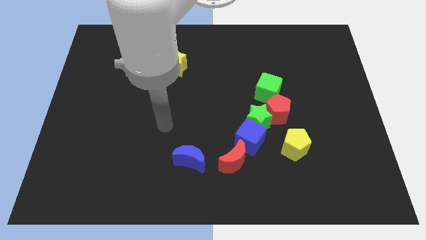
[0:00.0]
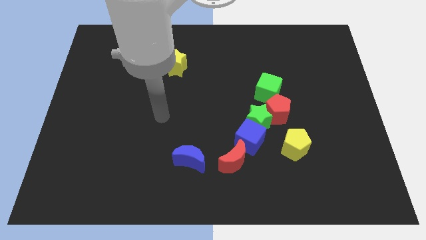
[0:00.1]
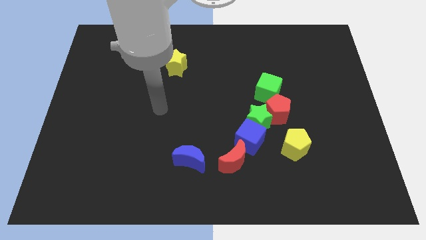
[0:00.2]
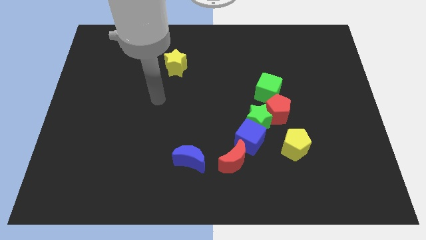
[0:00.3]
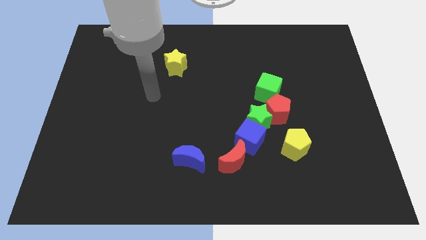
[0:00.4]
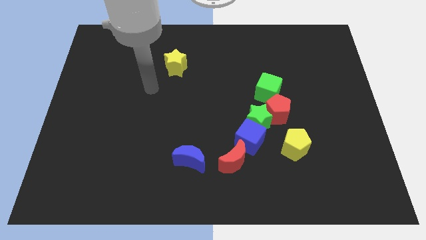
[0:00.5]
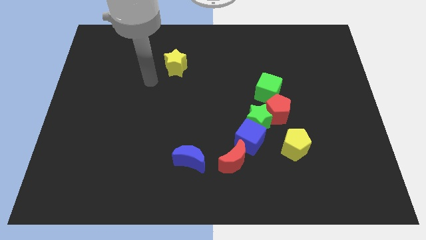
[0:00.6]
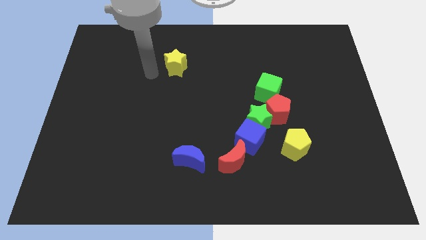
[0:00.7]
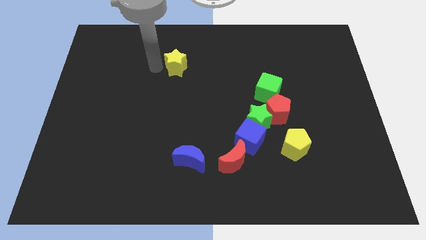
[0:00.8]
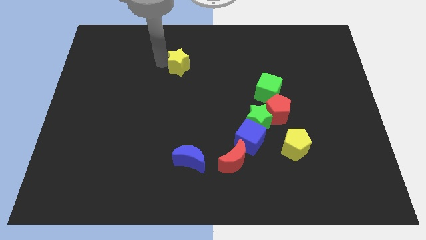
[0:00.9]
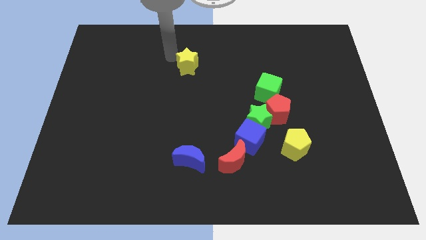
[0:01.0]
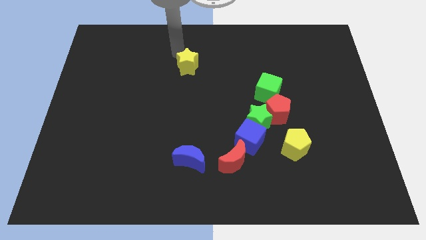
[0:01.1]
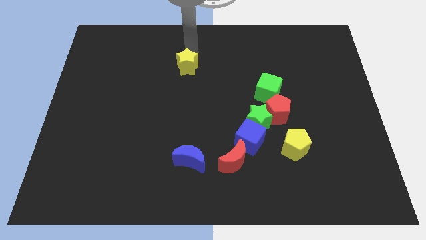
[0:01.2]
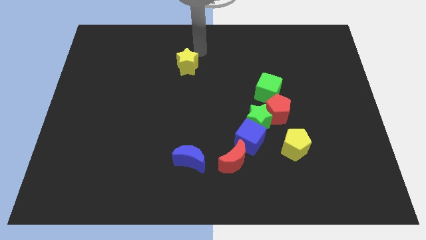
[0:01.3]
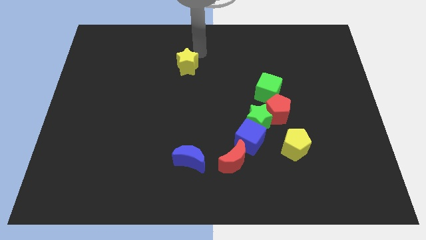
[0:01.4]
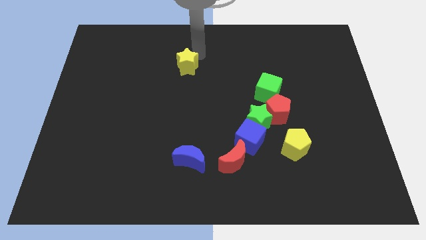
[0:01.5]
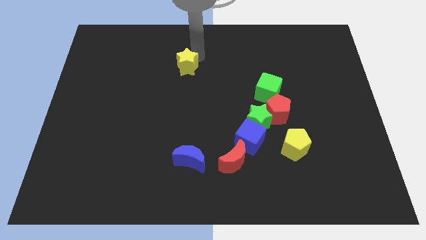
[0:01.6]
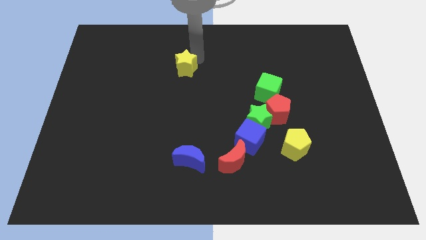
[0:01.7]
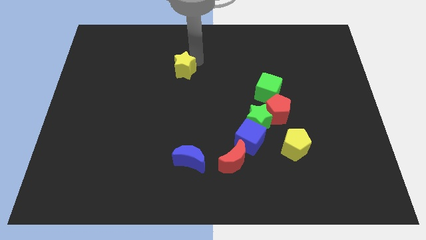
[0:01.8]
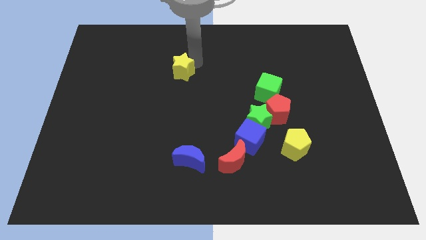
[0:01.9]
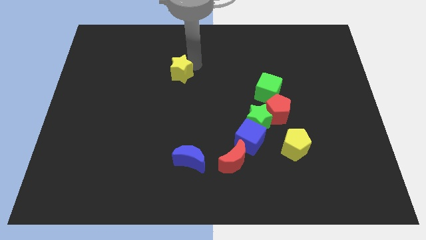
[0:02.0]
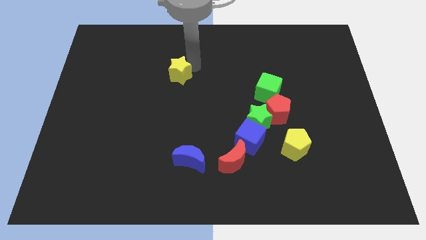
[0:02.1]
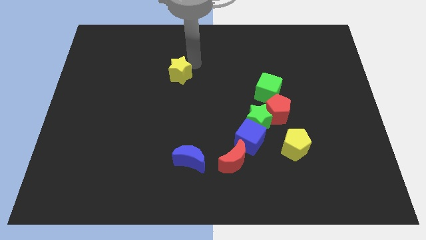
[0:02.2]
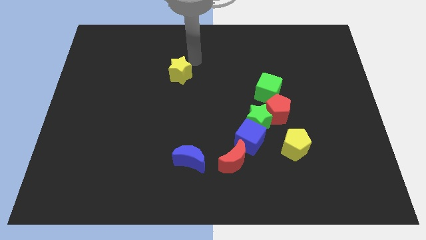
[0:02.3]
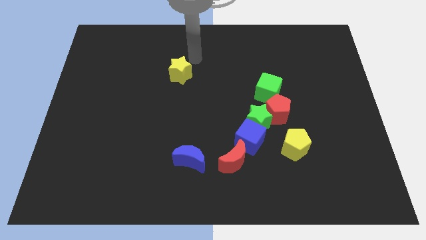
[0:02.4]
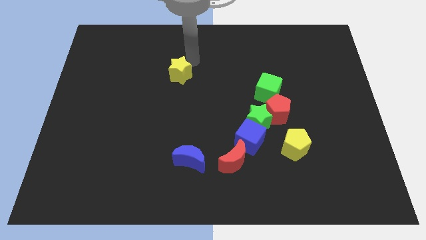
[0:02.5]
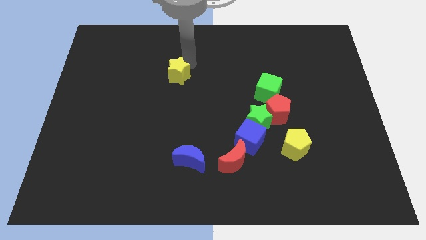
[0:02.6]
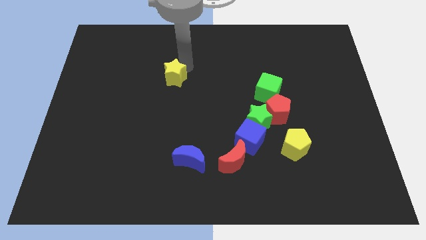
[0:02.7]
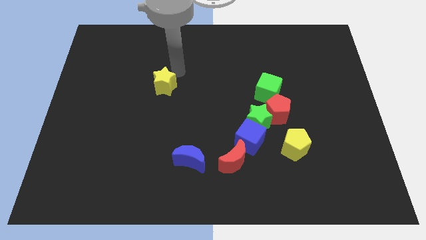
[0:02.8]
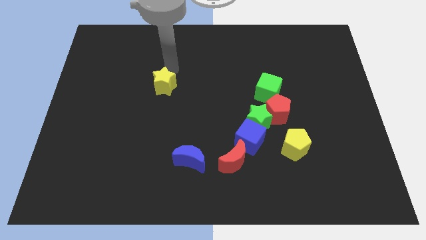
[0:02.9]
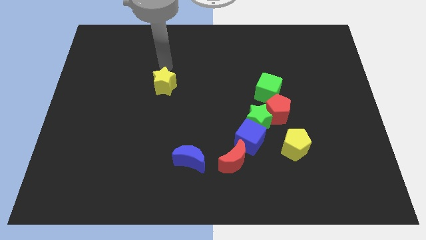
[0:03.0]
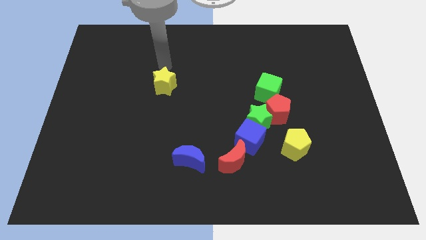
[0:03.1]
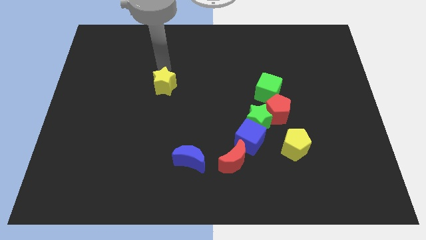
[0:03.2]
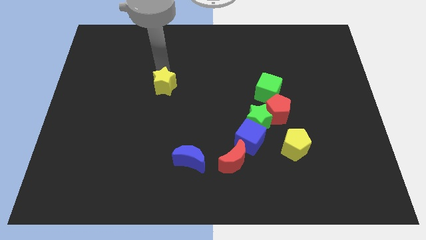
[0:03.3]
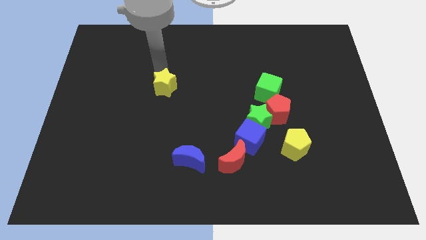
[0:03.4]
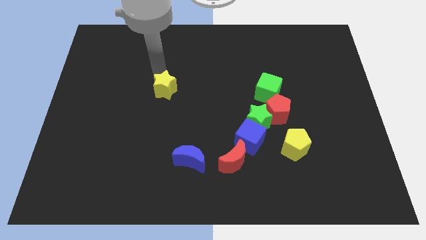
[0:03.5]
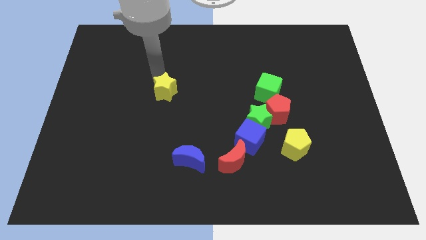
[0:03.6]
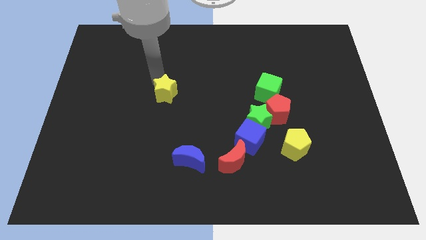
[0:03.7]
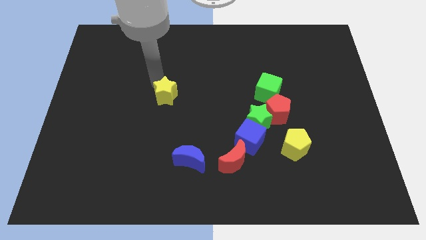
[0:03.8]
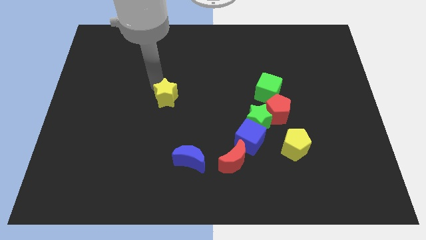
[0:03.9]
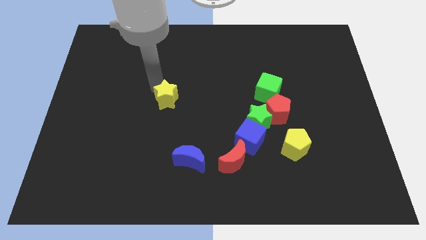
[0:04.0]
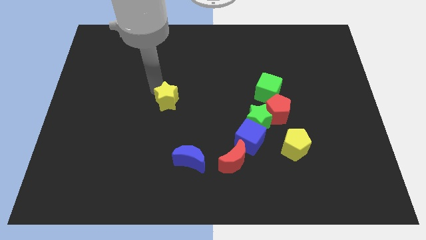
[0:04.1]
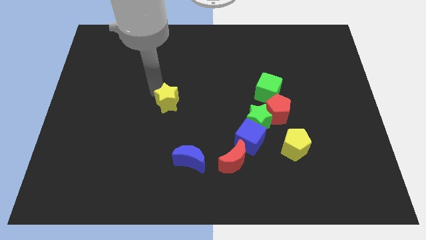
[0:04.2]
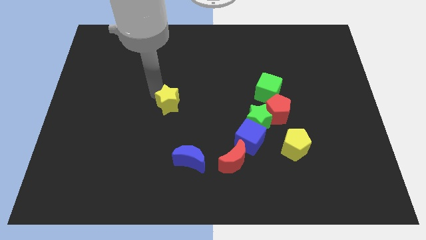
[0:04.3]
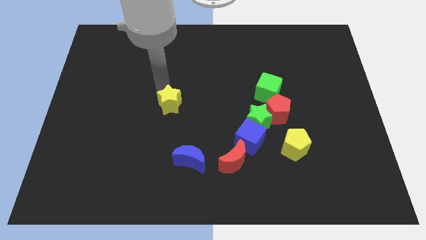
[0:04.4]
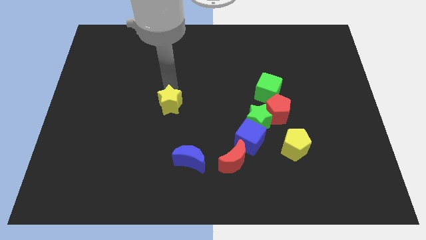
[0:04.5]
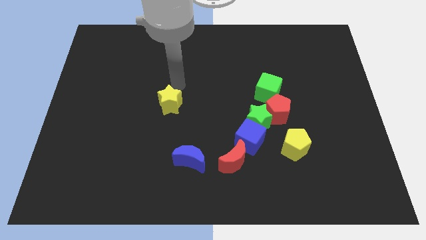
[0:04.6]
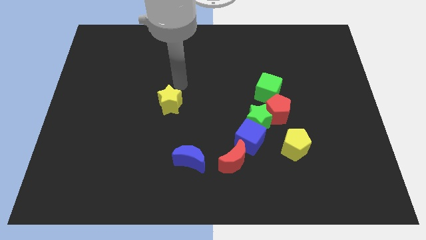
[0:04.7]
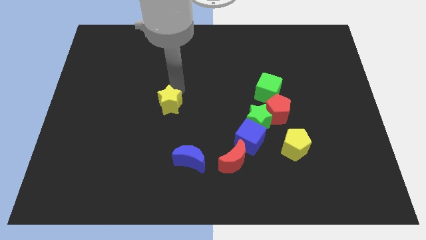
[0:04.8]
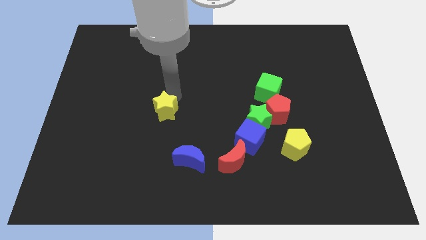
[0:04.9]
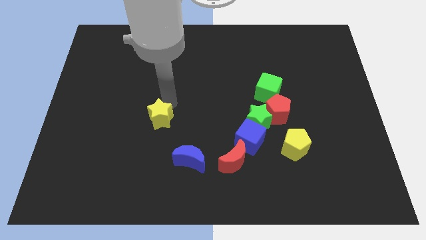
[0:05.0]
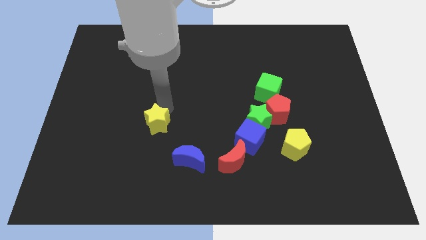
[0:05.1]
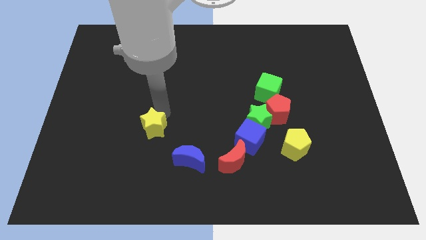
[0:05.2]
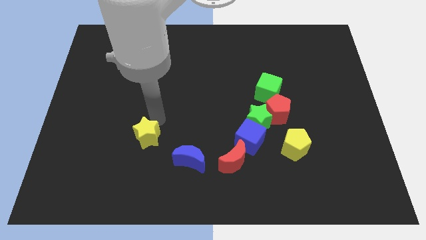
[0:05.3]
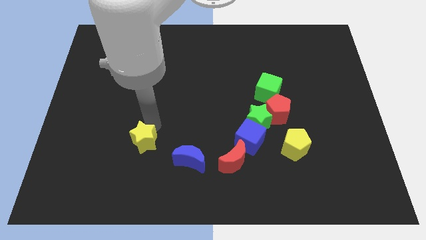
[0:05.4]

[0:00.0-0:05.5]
put the yellow star left of the blue moon

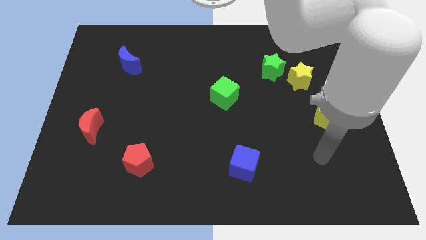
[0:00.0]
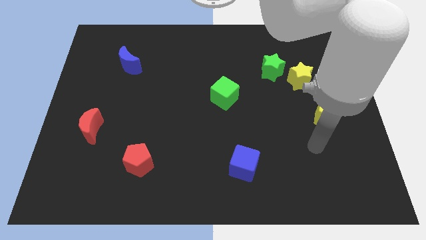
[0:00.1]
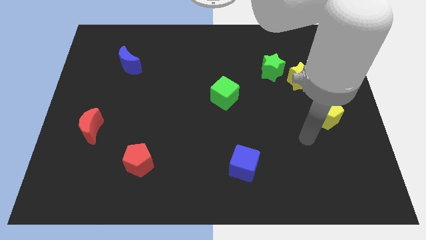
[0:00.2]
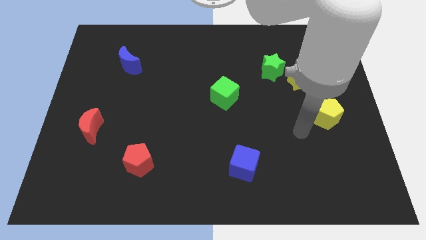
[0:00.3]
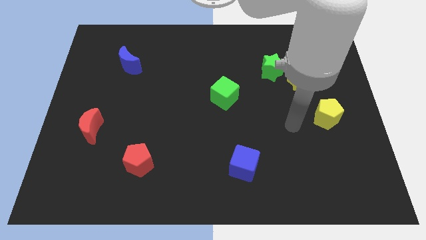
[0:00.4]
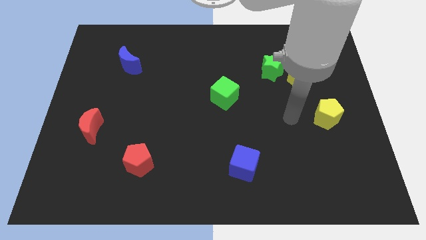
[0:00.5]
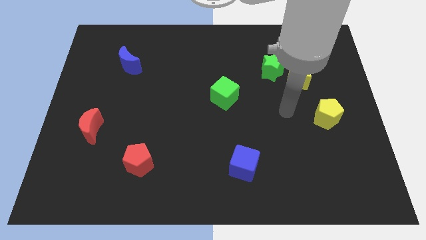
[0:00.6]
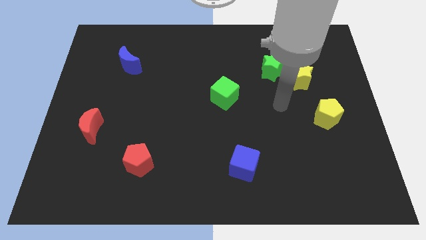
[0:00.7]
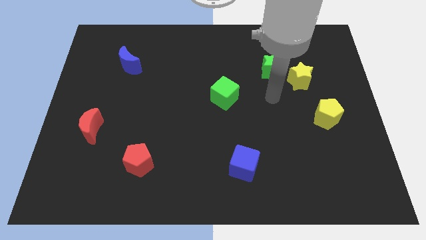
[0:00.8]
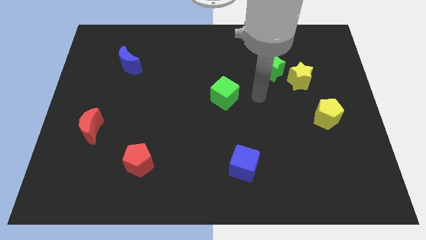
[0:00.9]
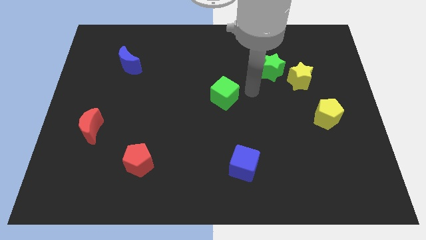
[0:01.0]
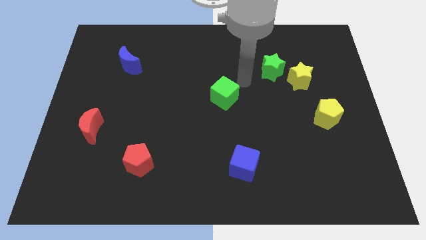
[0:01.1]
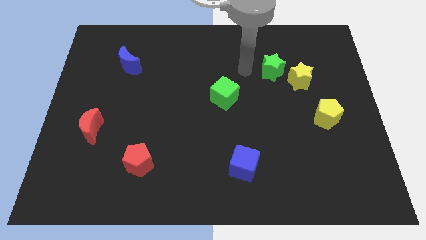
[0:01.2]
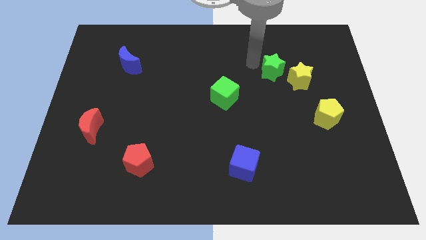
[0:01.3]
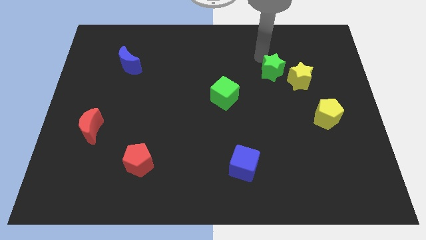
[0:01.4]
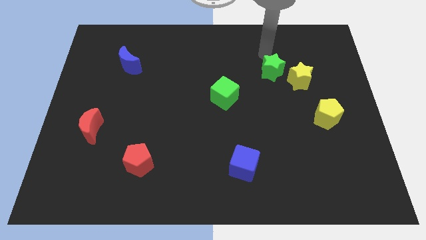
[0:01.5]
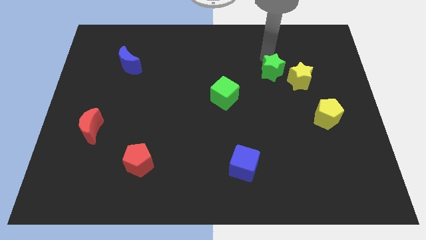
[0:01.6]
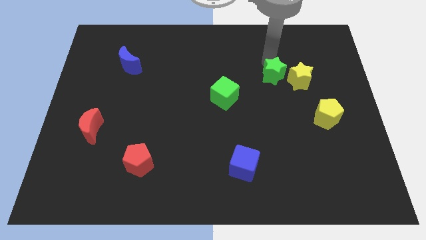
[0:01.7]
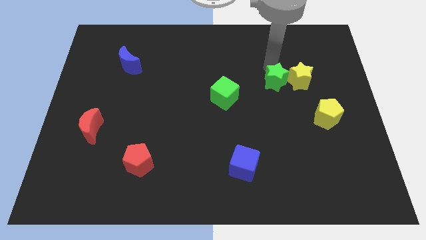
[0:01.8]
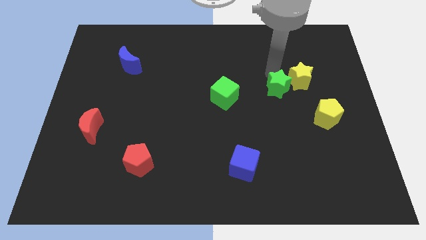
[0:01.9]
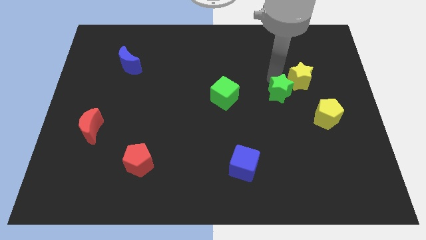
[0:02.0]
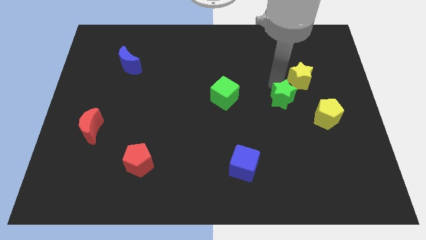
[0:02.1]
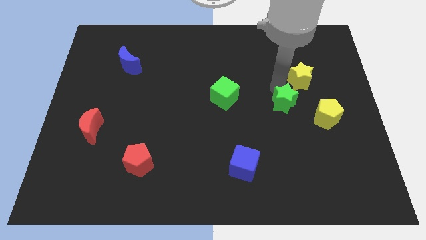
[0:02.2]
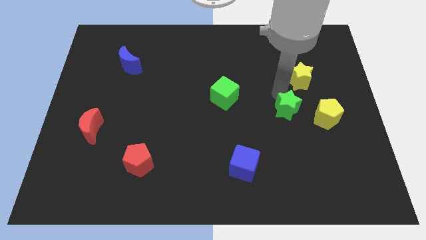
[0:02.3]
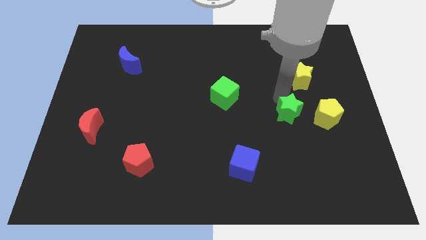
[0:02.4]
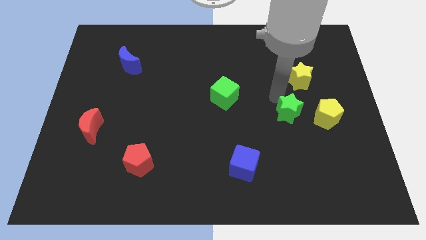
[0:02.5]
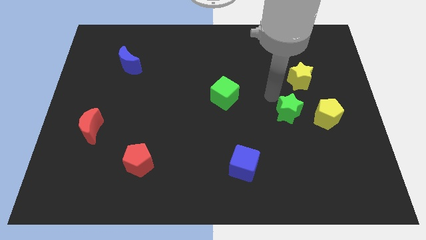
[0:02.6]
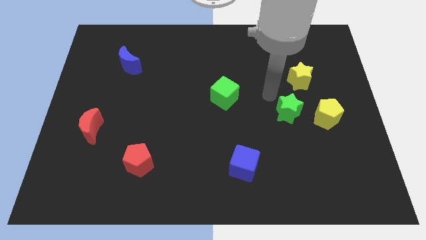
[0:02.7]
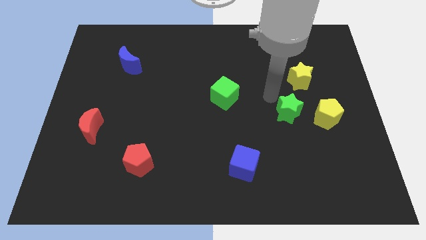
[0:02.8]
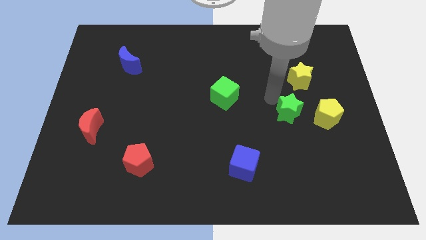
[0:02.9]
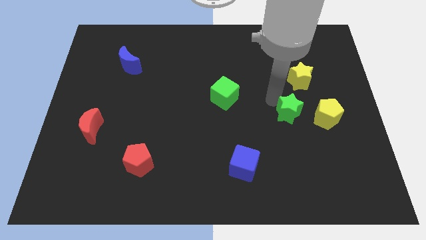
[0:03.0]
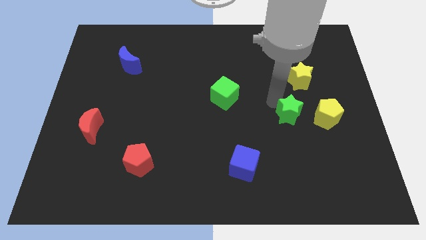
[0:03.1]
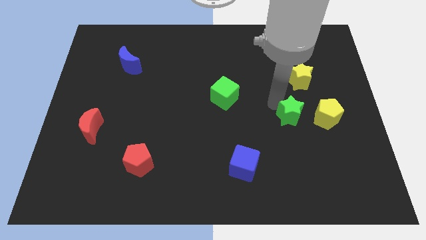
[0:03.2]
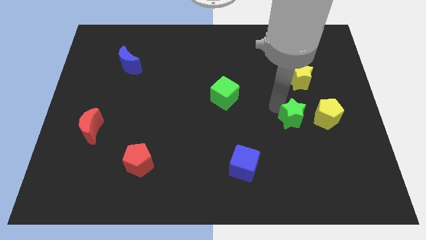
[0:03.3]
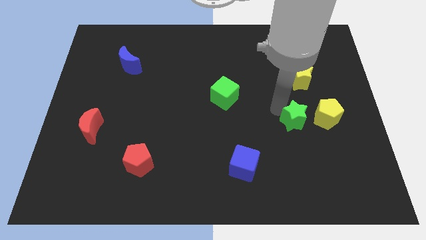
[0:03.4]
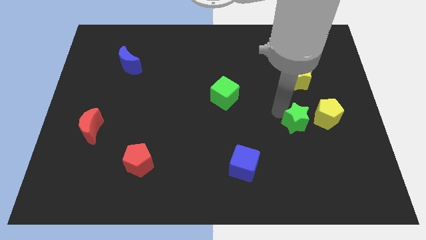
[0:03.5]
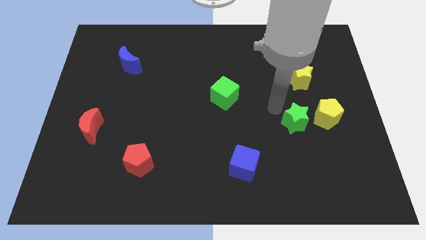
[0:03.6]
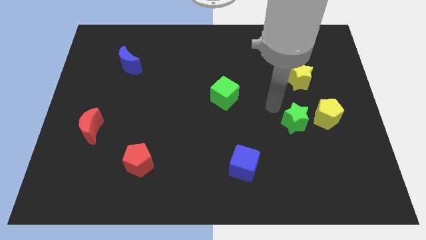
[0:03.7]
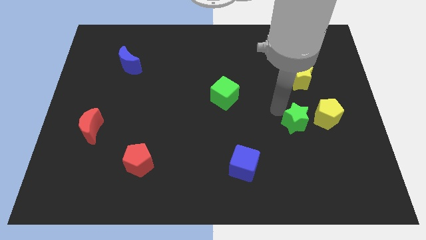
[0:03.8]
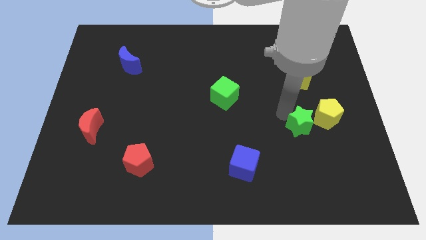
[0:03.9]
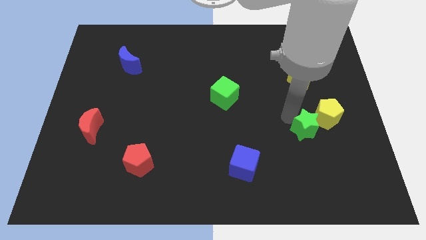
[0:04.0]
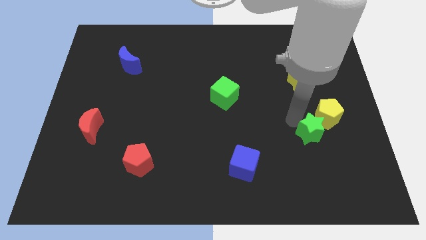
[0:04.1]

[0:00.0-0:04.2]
push the green star to the bottom of the yellow pentagon
